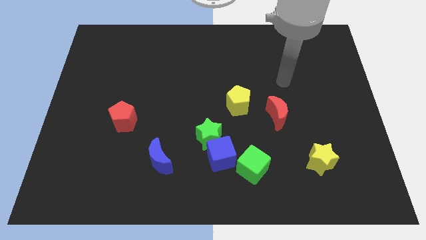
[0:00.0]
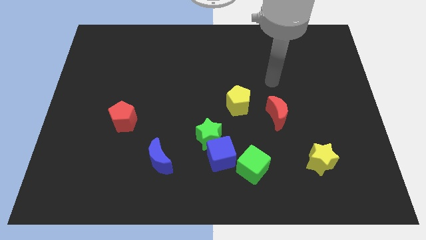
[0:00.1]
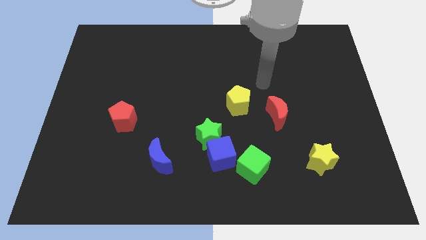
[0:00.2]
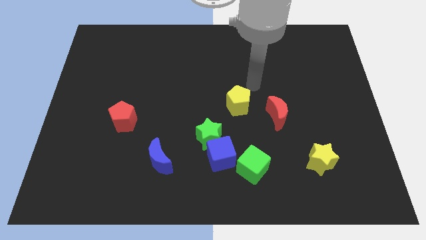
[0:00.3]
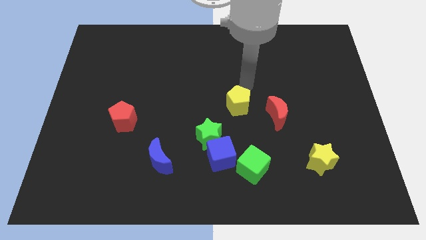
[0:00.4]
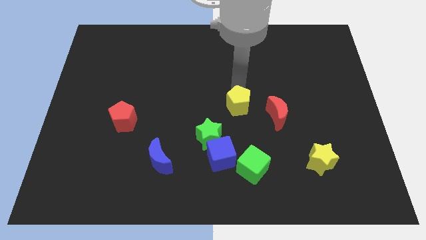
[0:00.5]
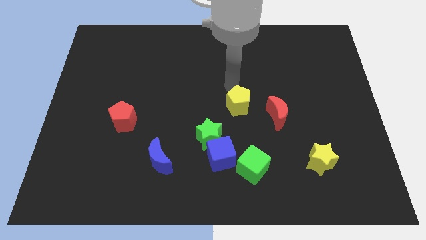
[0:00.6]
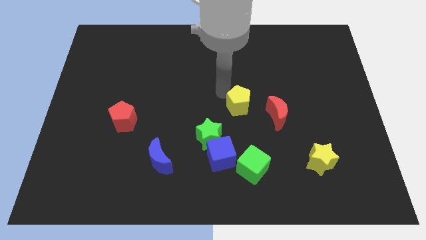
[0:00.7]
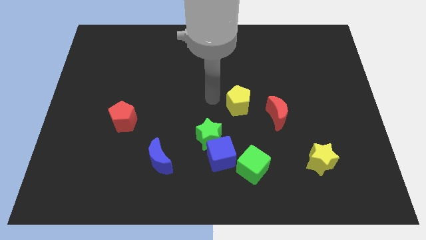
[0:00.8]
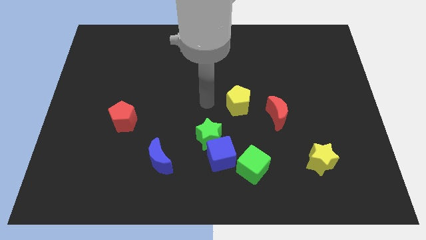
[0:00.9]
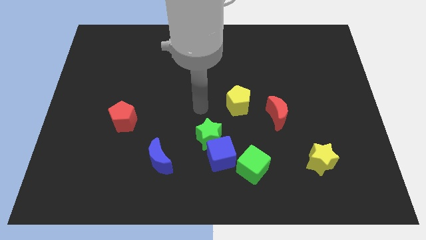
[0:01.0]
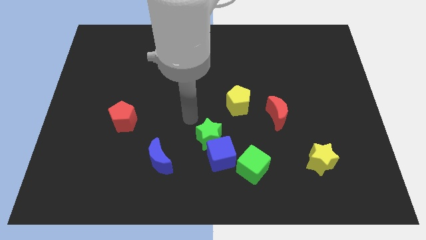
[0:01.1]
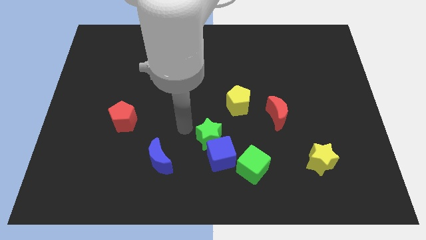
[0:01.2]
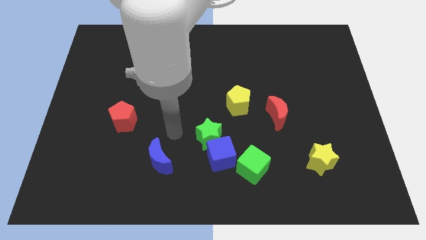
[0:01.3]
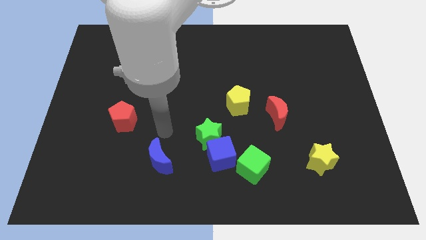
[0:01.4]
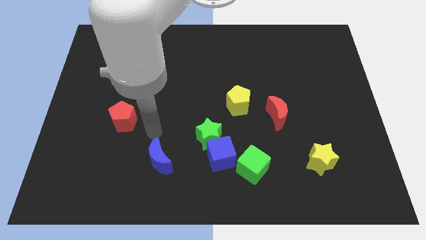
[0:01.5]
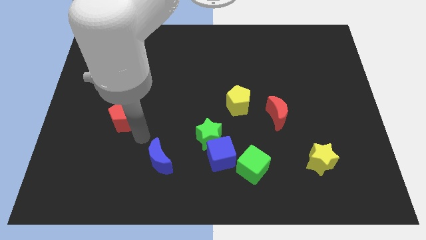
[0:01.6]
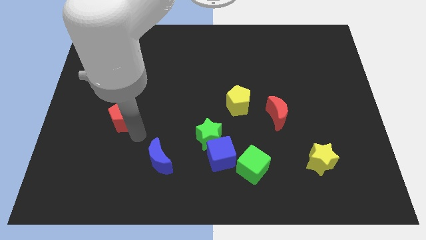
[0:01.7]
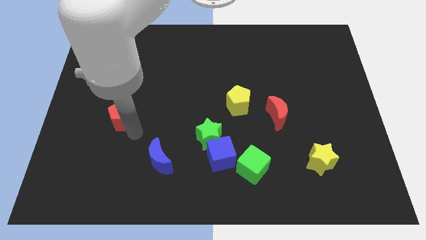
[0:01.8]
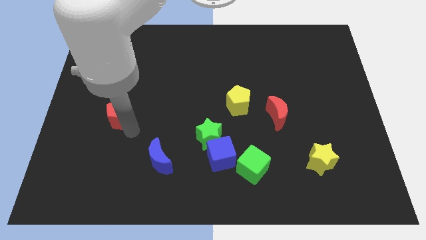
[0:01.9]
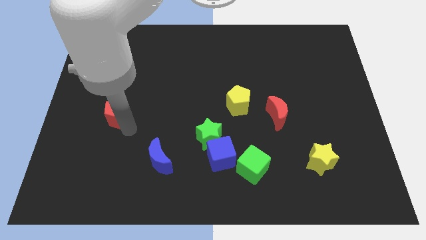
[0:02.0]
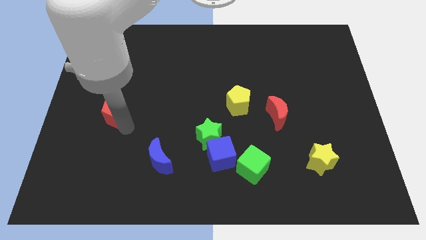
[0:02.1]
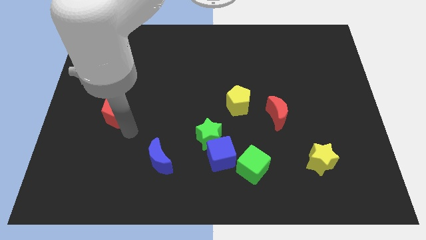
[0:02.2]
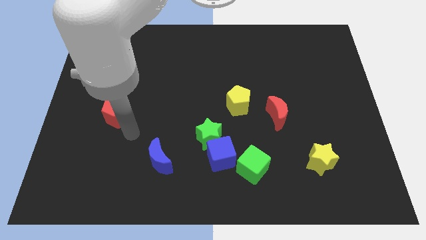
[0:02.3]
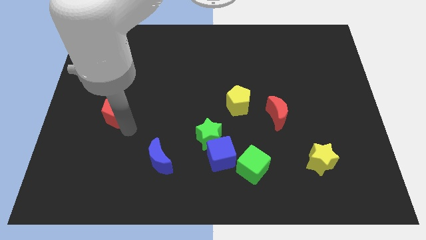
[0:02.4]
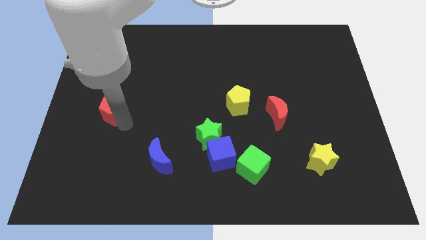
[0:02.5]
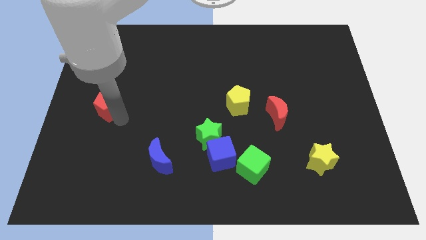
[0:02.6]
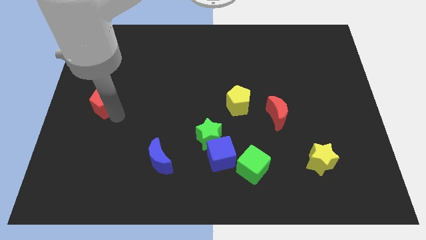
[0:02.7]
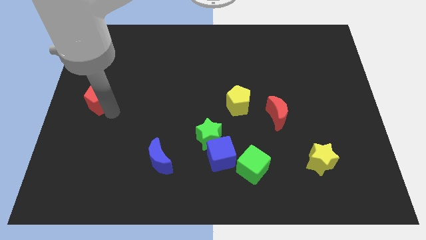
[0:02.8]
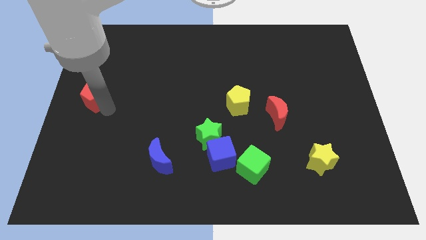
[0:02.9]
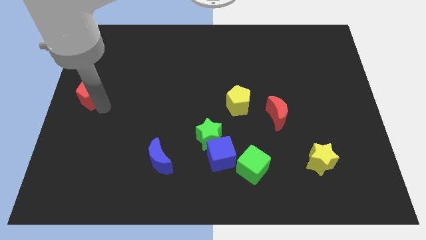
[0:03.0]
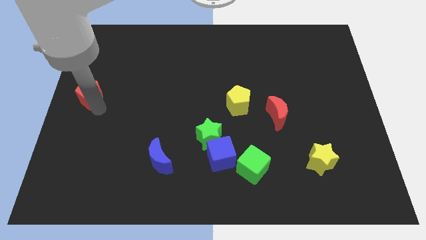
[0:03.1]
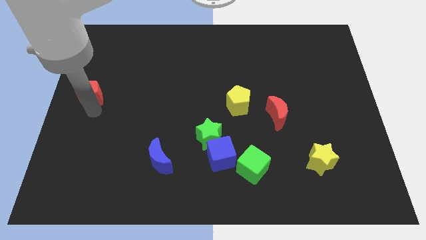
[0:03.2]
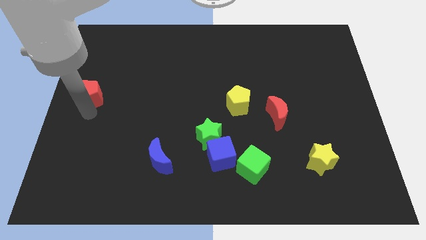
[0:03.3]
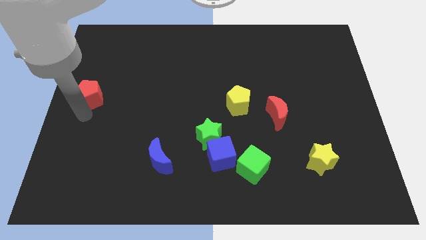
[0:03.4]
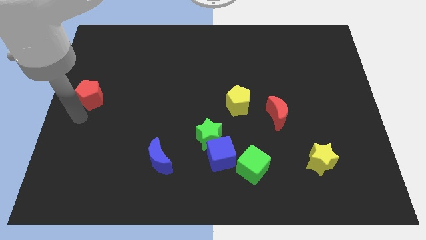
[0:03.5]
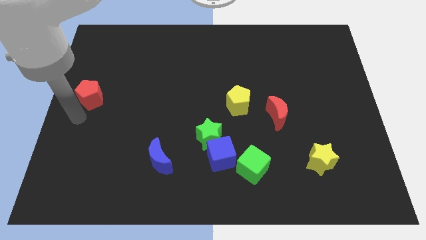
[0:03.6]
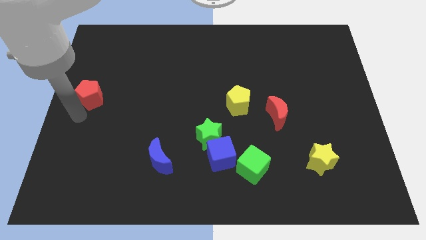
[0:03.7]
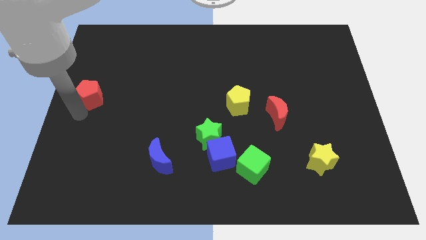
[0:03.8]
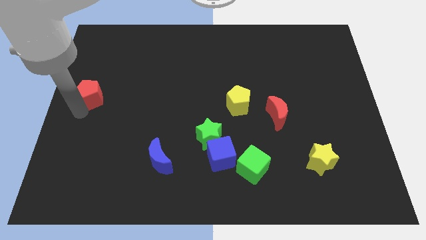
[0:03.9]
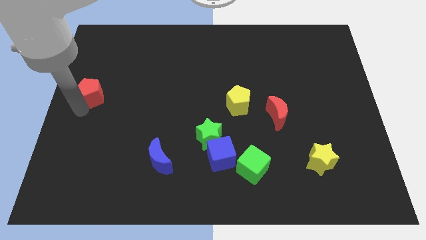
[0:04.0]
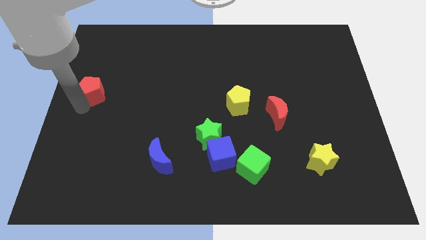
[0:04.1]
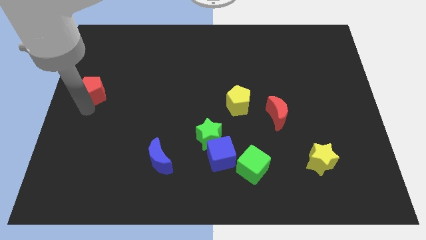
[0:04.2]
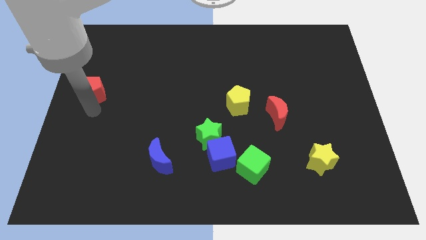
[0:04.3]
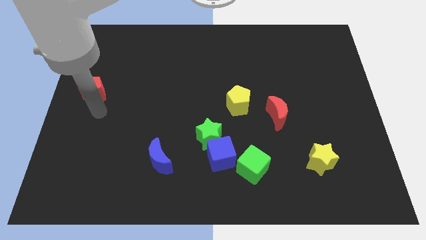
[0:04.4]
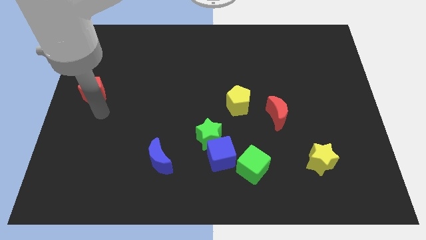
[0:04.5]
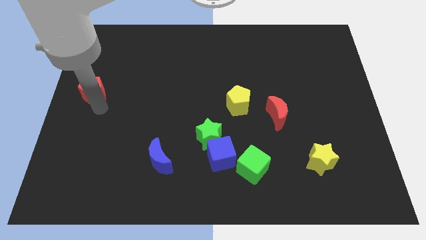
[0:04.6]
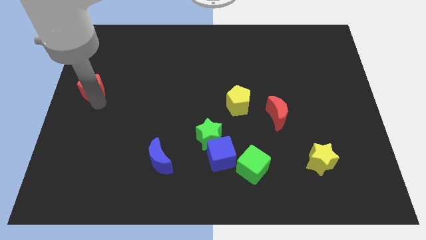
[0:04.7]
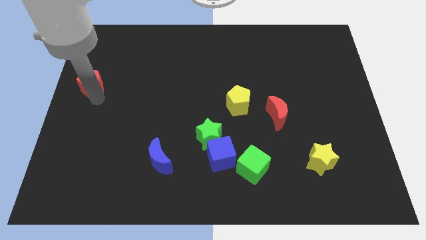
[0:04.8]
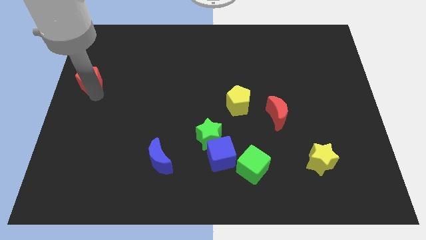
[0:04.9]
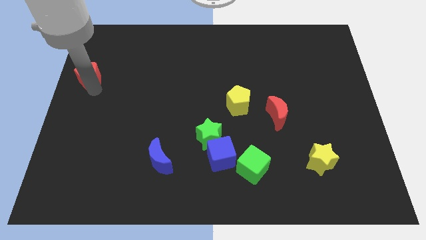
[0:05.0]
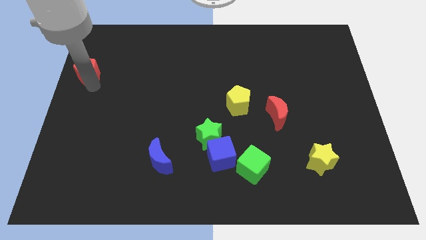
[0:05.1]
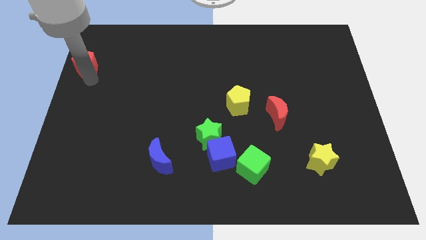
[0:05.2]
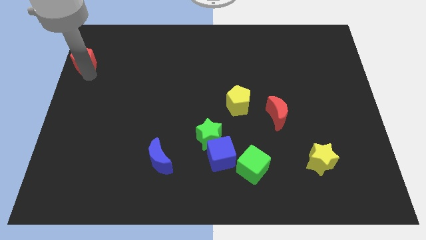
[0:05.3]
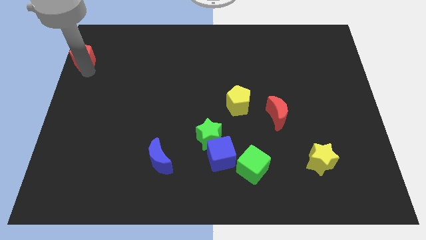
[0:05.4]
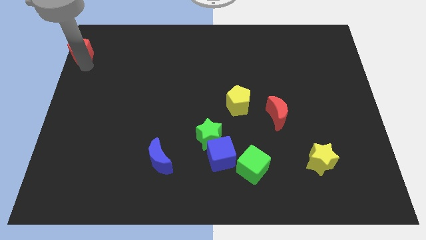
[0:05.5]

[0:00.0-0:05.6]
put the red pentagon to the top left corner

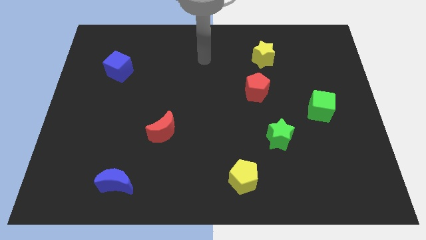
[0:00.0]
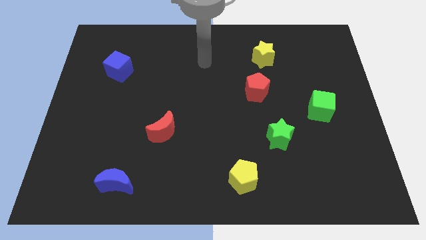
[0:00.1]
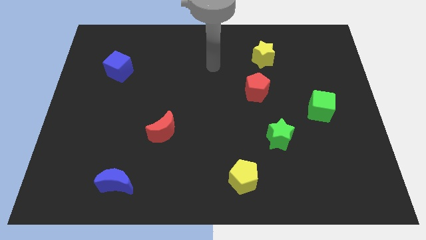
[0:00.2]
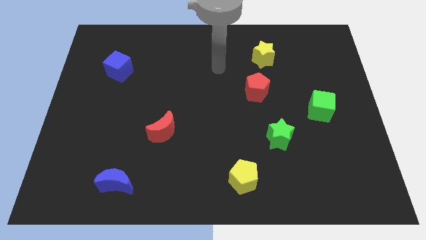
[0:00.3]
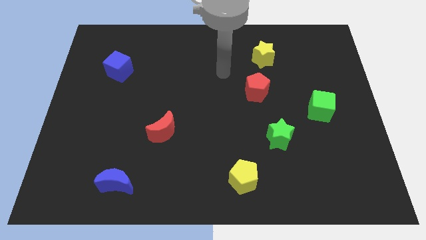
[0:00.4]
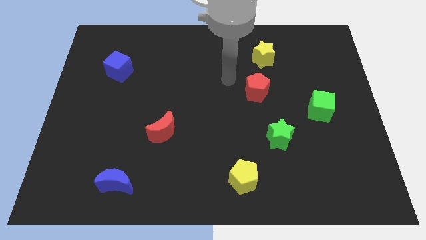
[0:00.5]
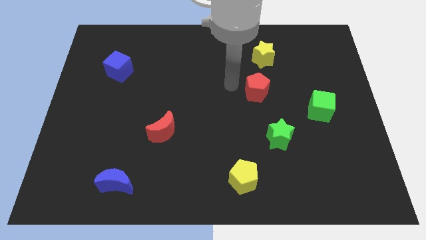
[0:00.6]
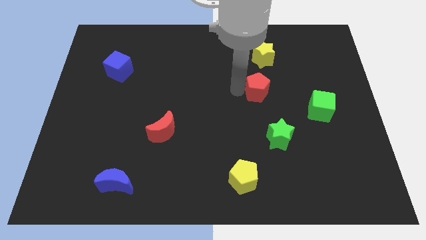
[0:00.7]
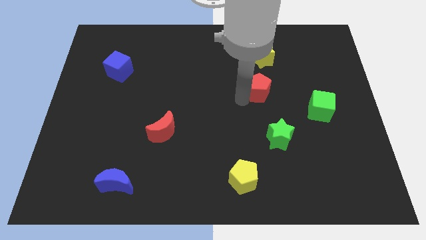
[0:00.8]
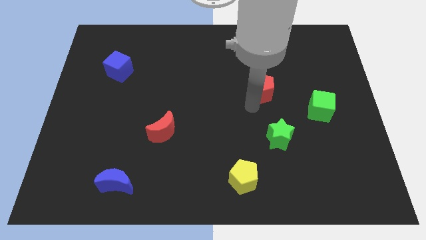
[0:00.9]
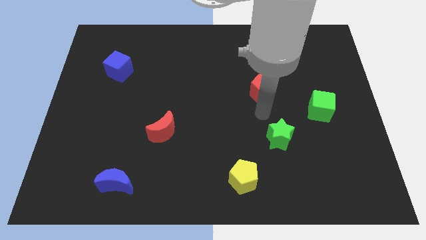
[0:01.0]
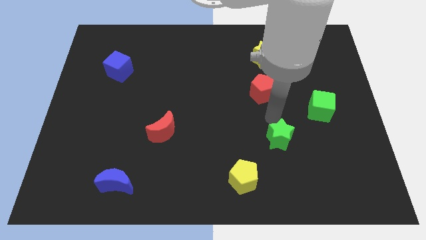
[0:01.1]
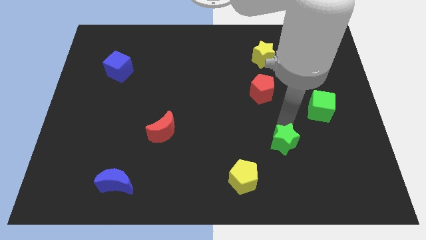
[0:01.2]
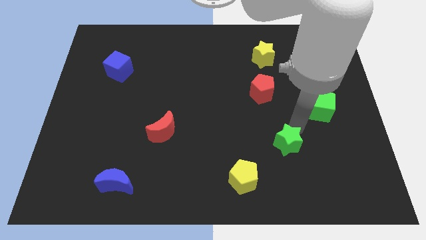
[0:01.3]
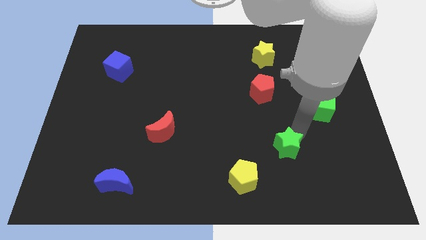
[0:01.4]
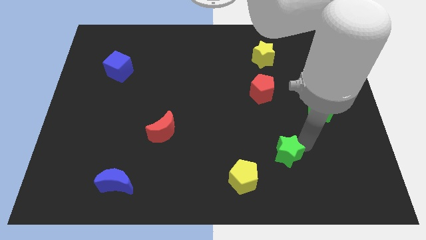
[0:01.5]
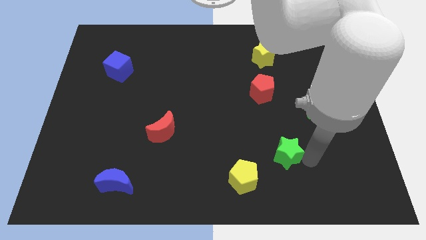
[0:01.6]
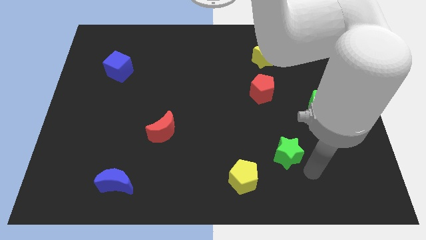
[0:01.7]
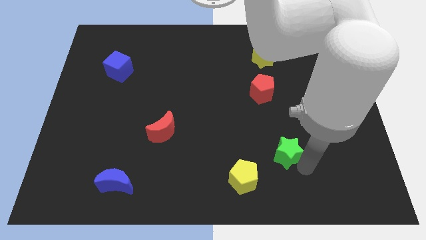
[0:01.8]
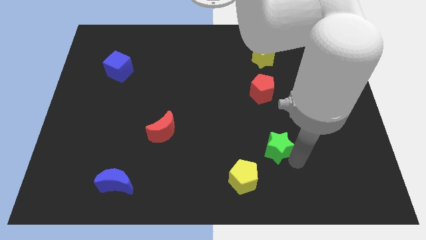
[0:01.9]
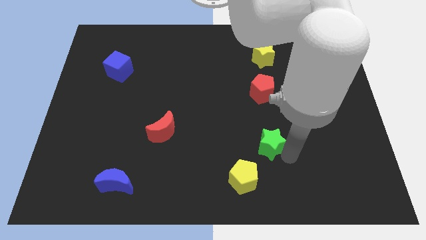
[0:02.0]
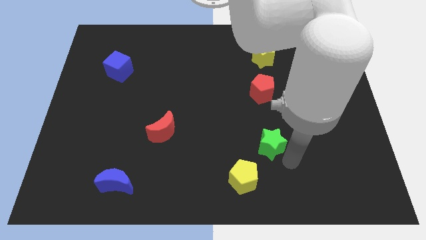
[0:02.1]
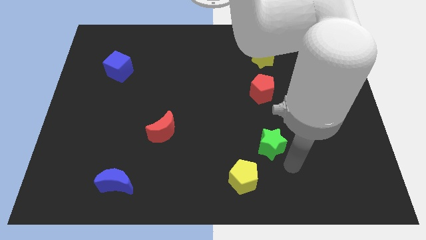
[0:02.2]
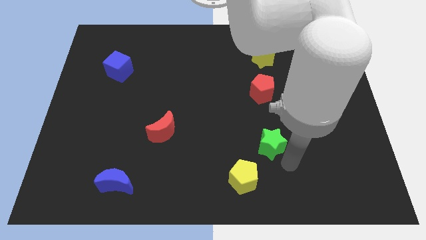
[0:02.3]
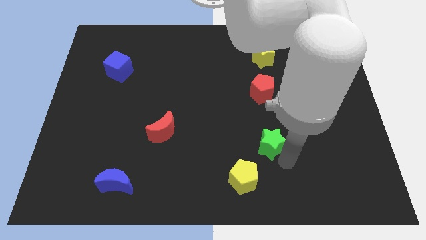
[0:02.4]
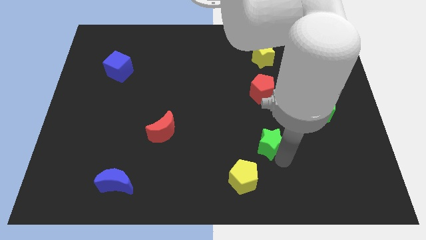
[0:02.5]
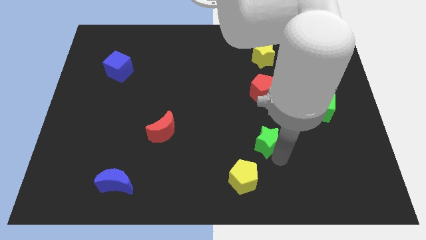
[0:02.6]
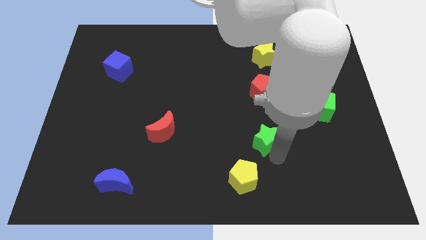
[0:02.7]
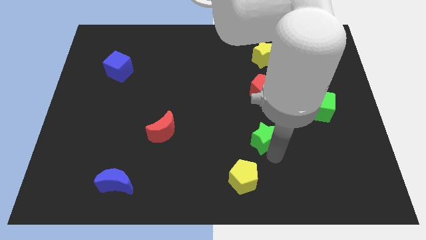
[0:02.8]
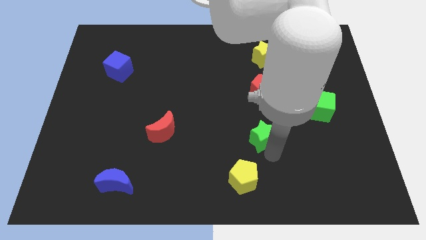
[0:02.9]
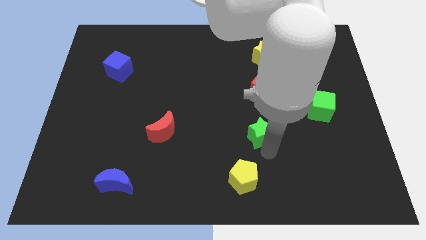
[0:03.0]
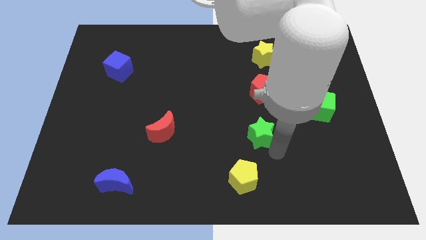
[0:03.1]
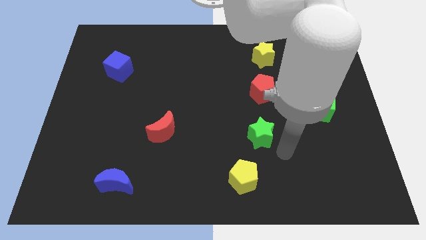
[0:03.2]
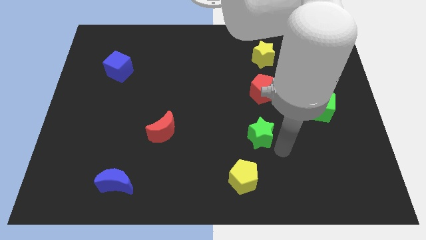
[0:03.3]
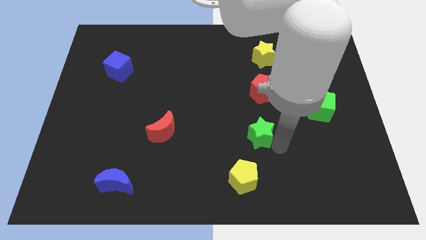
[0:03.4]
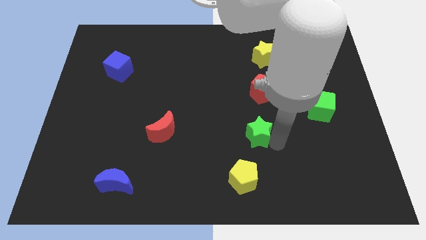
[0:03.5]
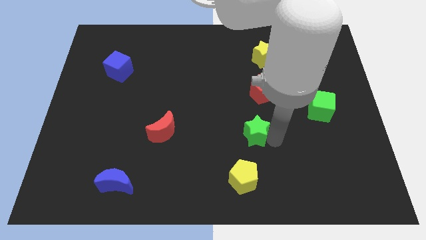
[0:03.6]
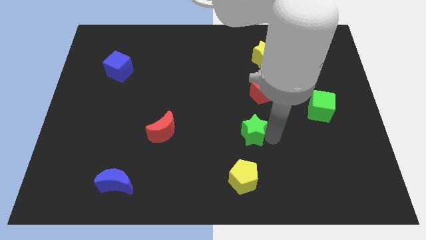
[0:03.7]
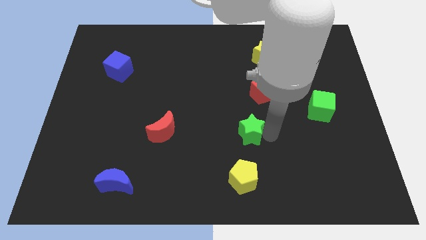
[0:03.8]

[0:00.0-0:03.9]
push the green star to the center of the board
